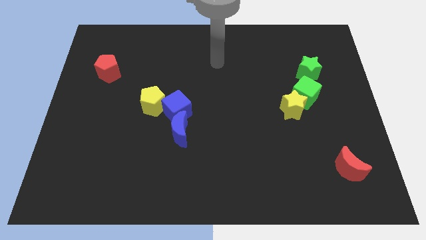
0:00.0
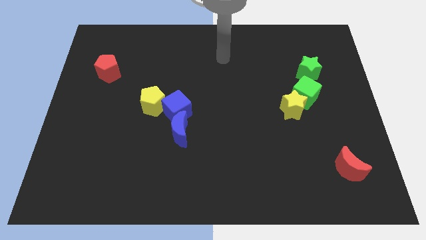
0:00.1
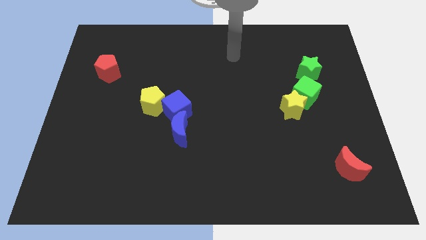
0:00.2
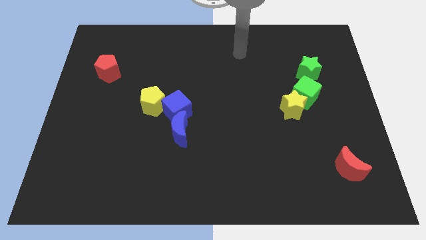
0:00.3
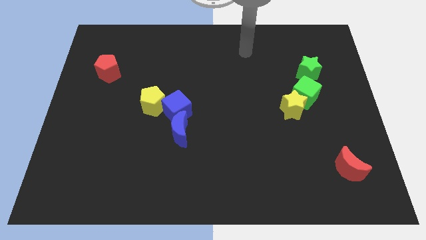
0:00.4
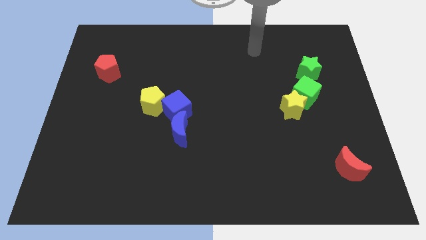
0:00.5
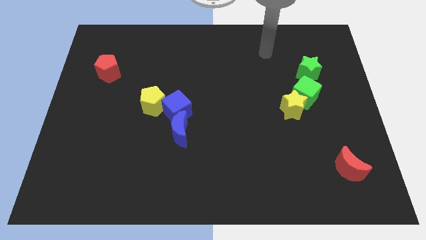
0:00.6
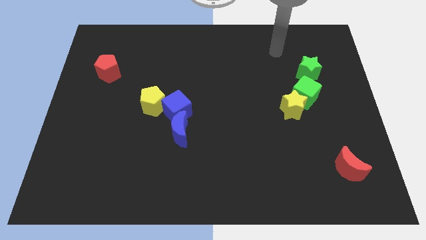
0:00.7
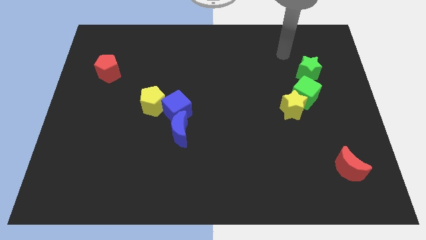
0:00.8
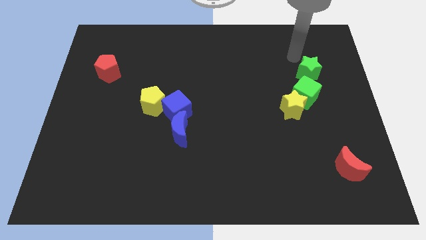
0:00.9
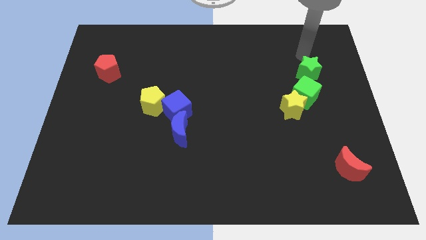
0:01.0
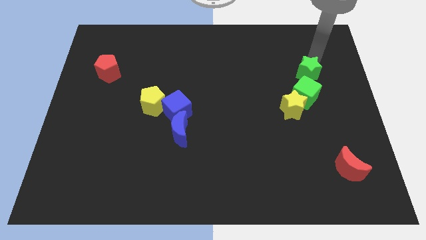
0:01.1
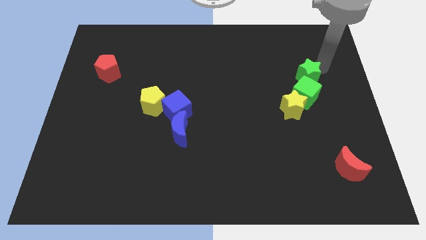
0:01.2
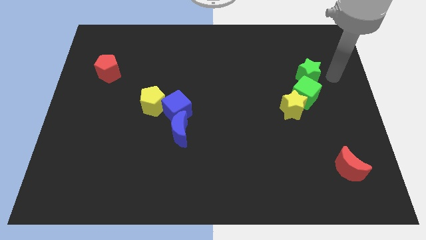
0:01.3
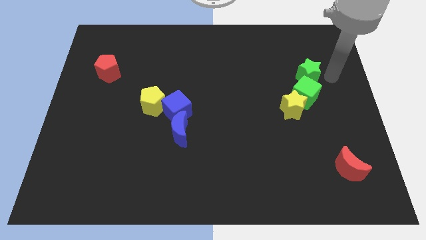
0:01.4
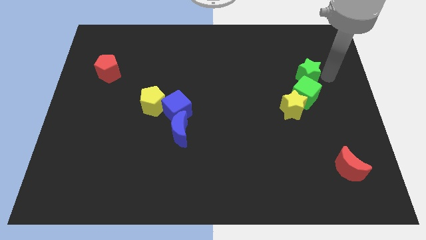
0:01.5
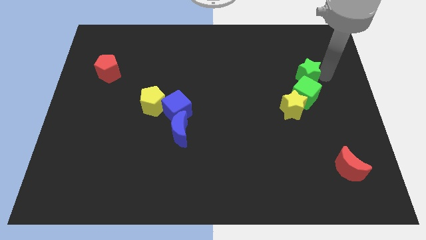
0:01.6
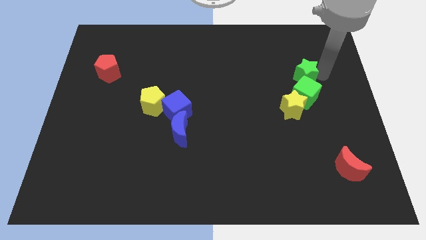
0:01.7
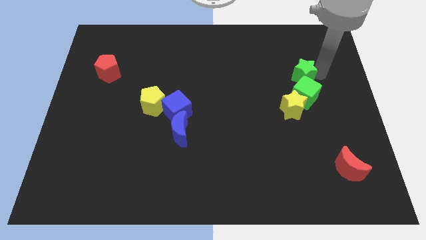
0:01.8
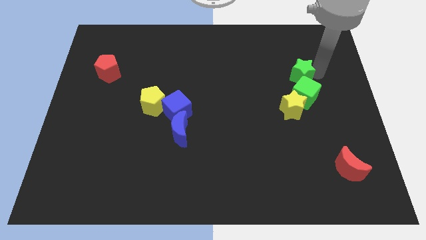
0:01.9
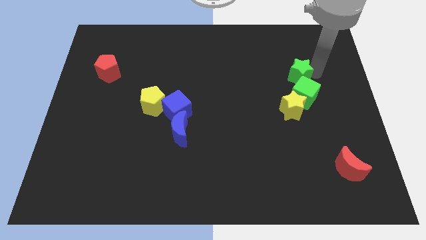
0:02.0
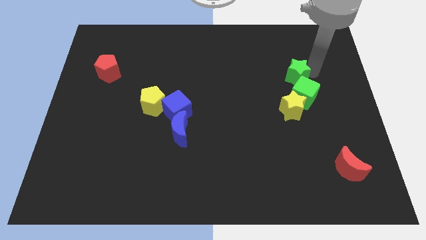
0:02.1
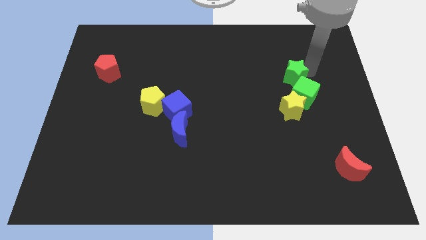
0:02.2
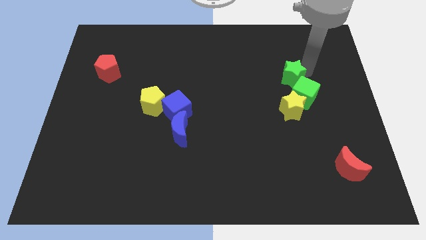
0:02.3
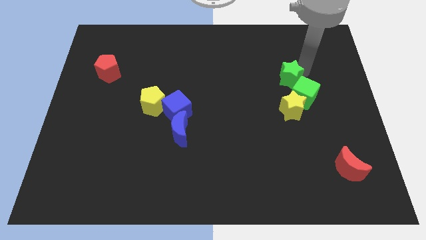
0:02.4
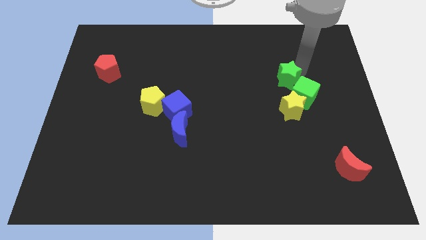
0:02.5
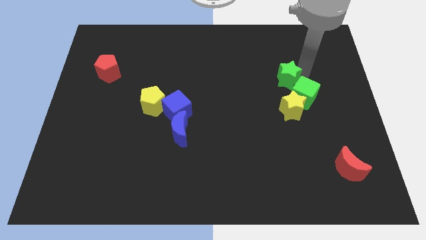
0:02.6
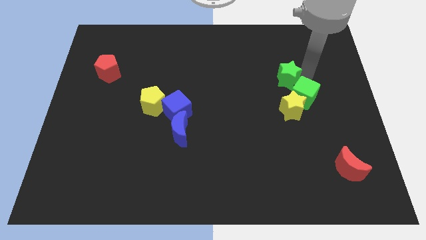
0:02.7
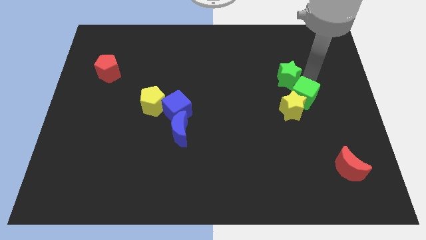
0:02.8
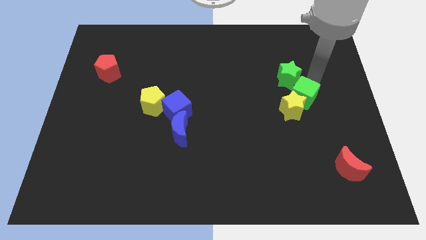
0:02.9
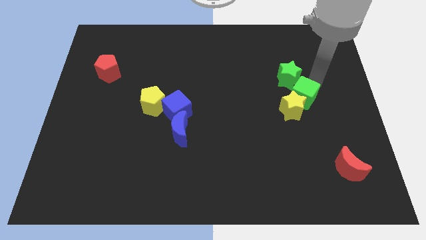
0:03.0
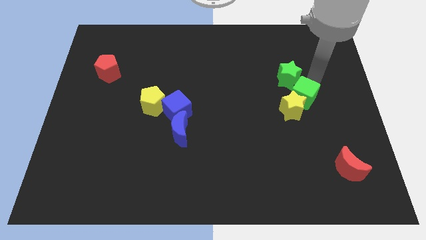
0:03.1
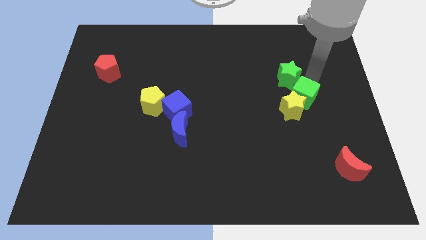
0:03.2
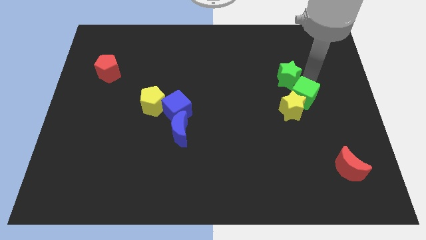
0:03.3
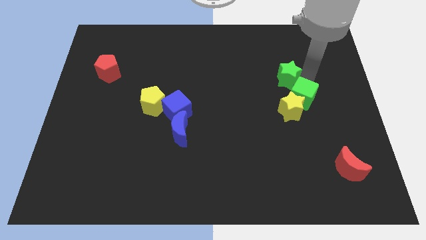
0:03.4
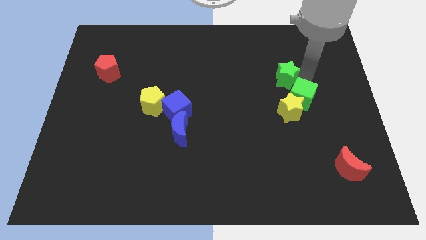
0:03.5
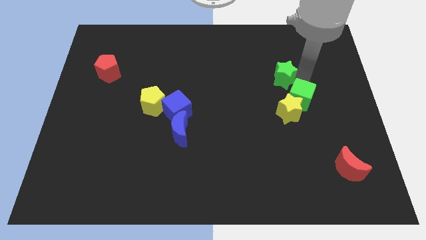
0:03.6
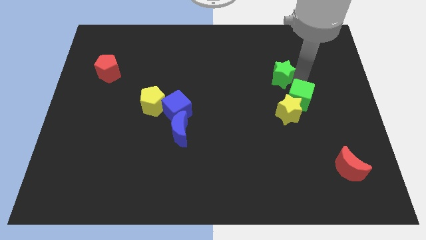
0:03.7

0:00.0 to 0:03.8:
slide the green star a little bit to the left

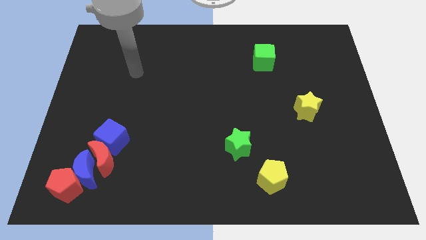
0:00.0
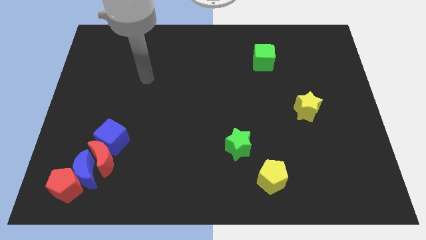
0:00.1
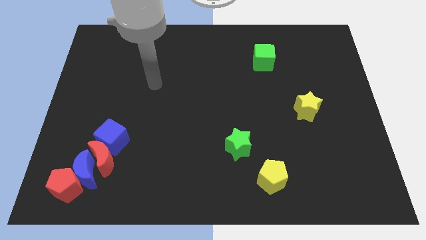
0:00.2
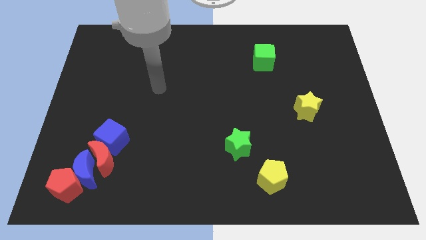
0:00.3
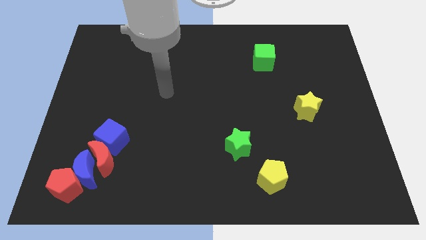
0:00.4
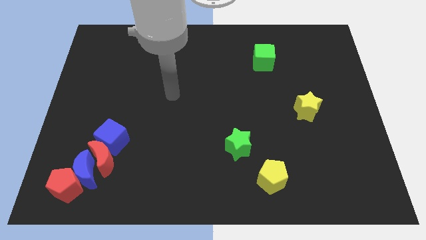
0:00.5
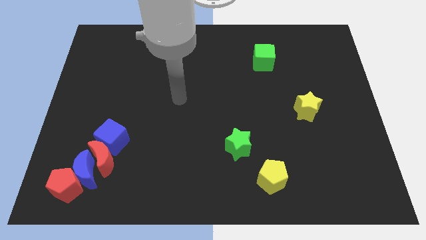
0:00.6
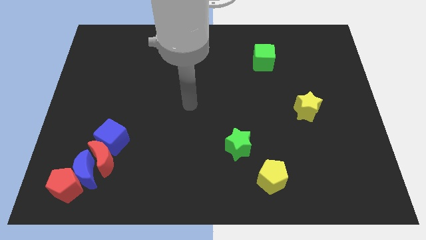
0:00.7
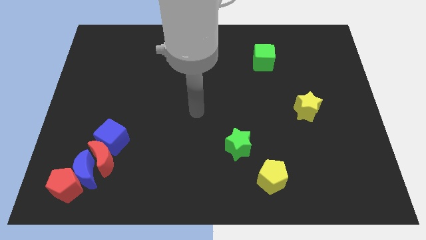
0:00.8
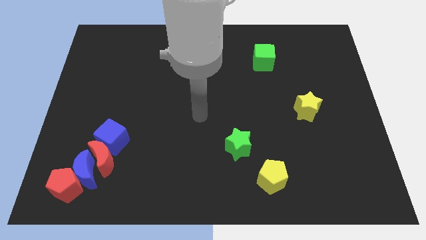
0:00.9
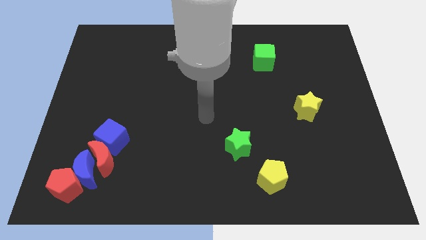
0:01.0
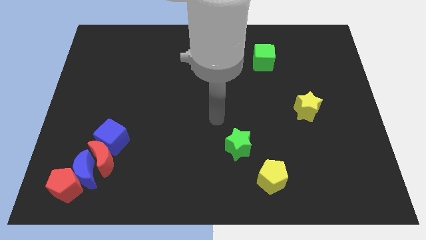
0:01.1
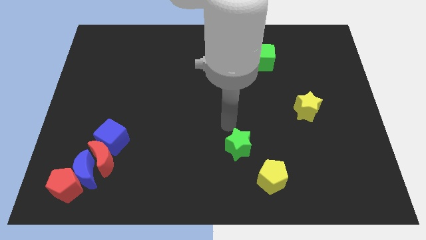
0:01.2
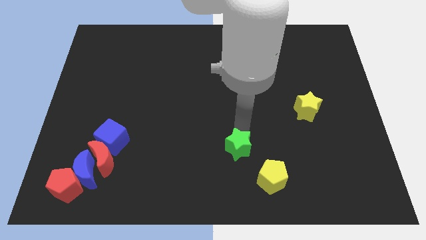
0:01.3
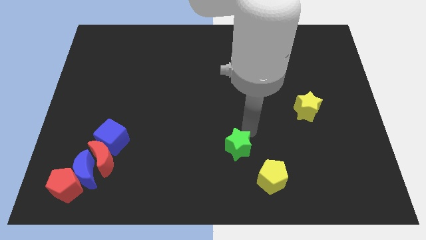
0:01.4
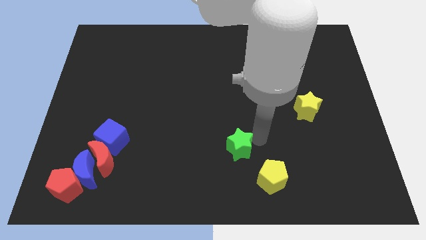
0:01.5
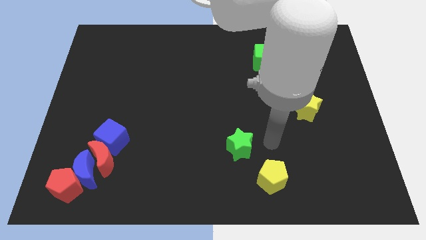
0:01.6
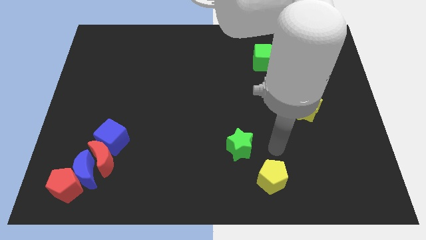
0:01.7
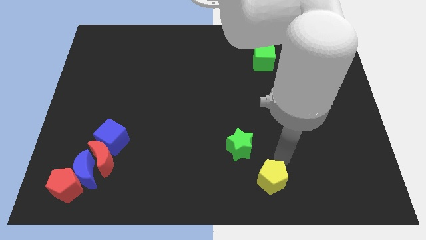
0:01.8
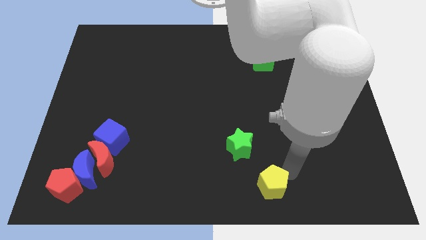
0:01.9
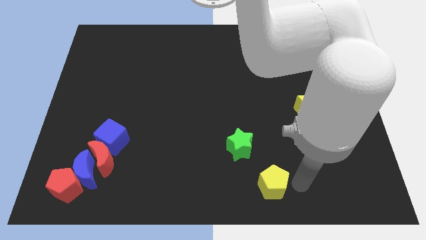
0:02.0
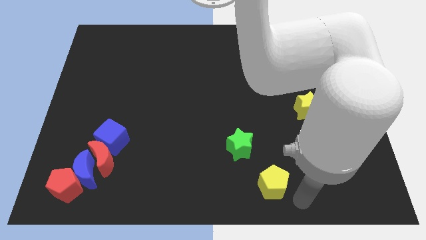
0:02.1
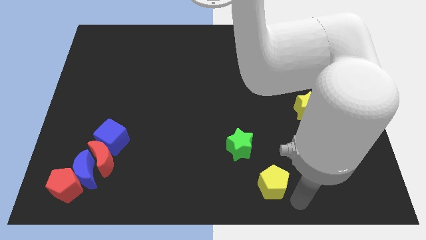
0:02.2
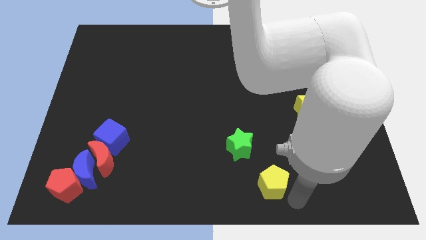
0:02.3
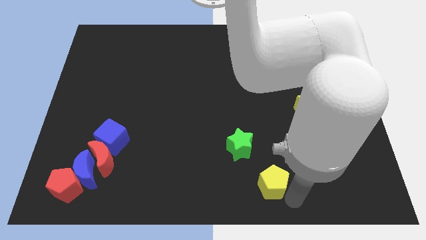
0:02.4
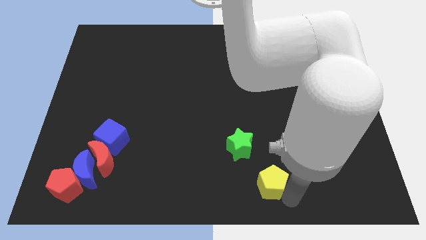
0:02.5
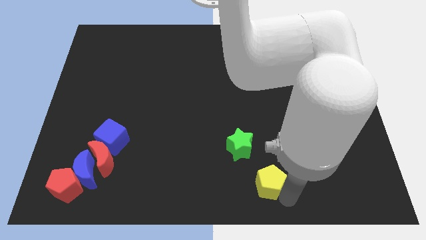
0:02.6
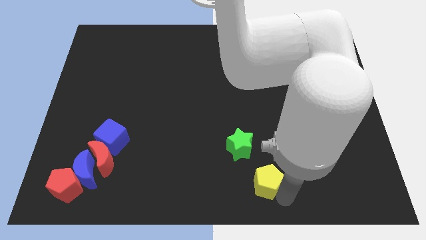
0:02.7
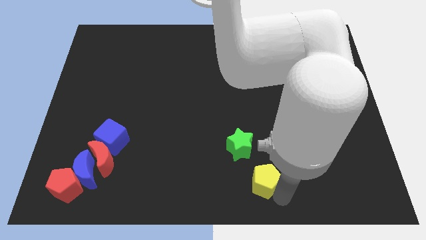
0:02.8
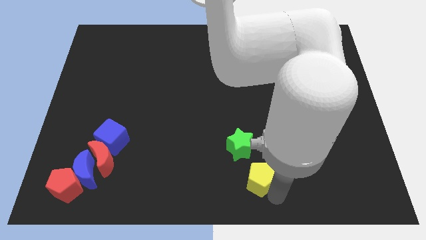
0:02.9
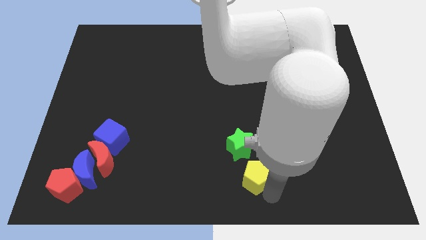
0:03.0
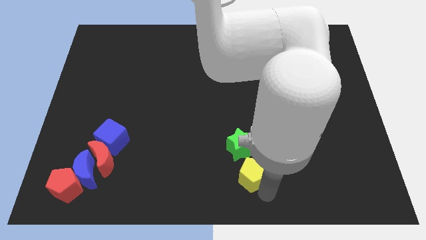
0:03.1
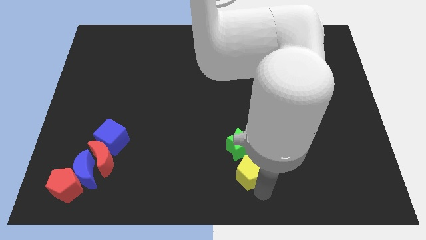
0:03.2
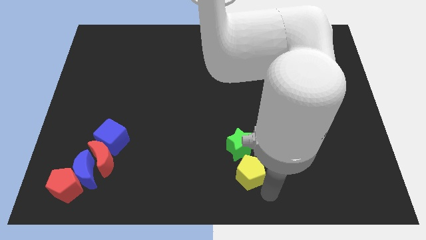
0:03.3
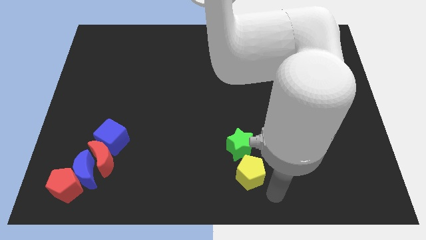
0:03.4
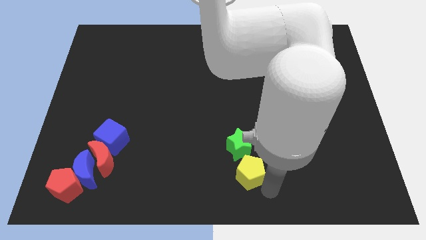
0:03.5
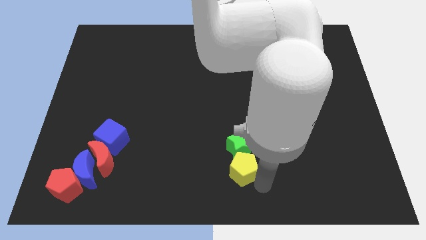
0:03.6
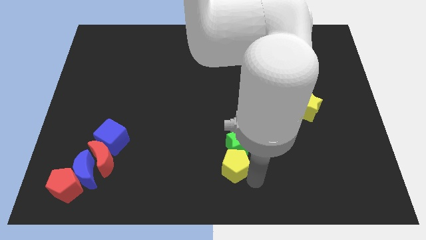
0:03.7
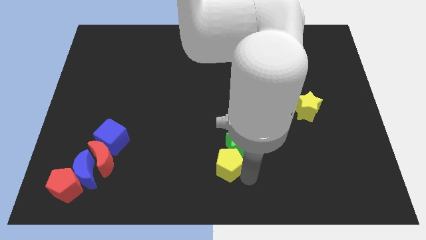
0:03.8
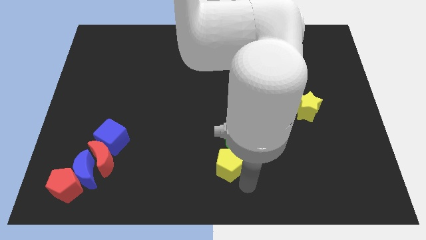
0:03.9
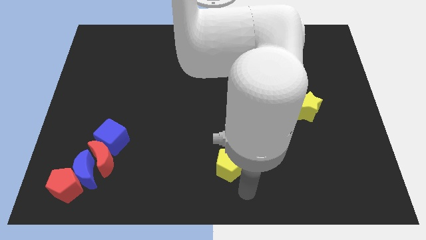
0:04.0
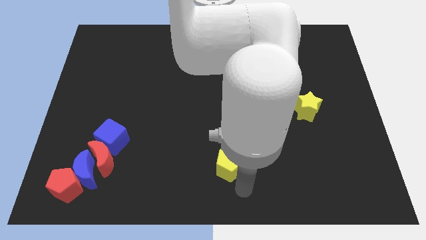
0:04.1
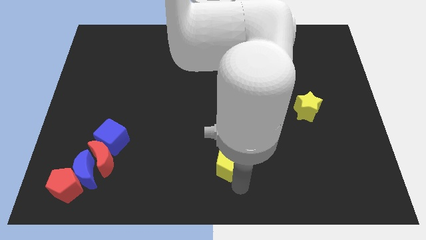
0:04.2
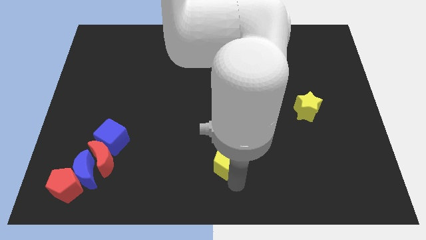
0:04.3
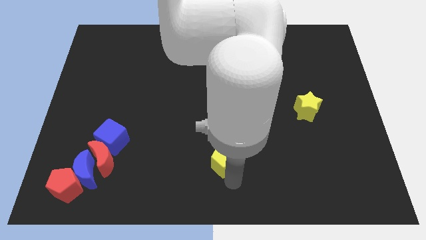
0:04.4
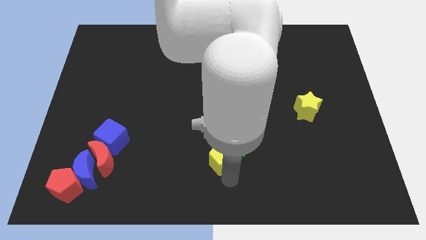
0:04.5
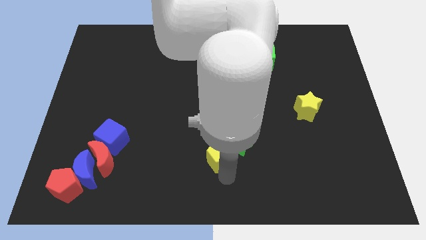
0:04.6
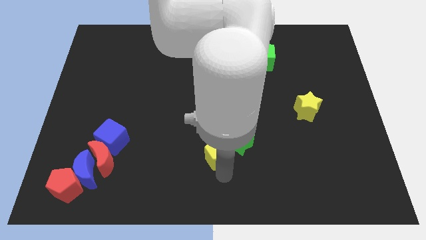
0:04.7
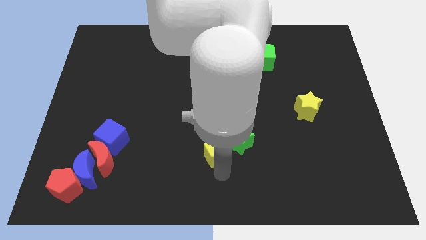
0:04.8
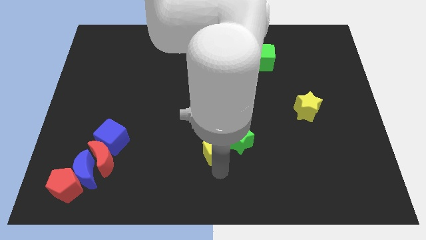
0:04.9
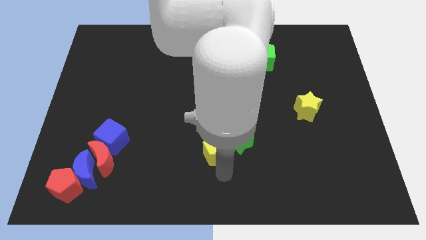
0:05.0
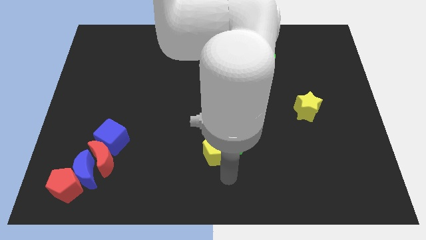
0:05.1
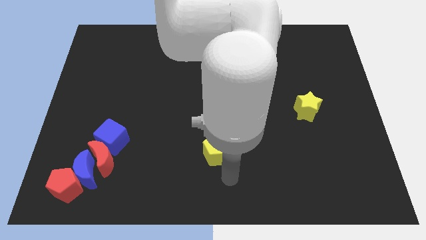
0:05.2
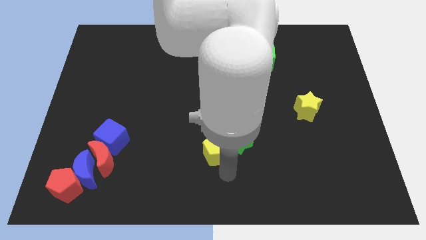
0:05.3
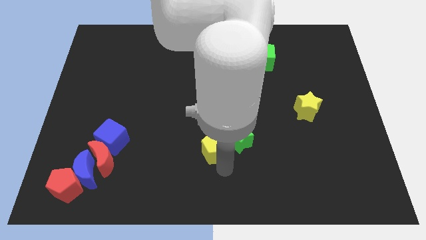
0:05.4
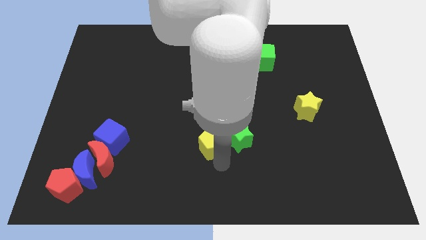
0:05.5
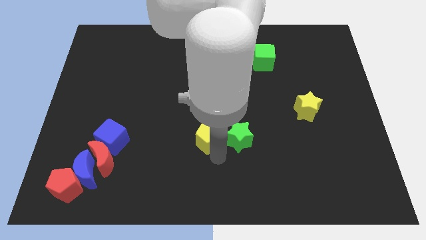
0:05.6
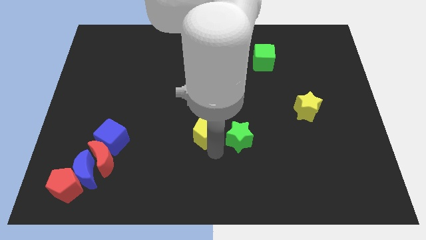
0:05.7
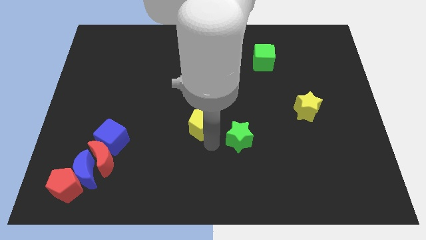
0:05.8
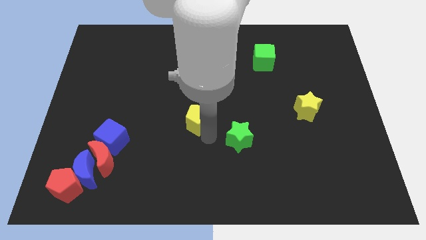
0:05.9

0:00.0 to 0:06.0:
push the yellow pentagon diagonally up and left
